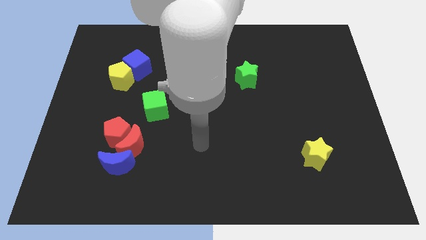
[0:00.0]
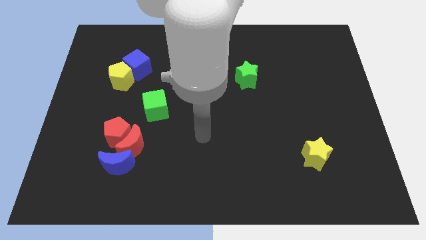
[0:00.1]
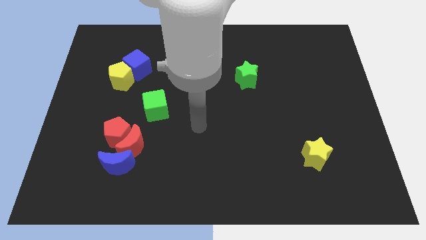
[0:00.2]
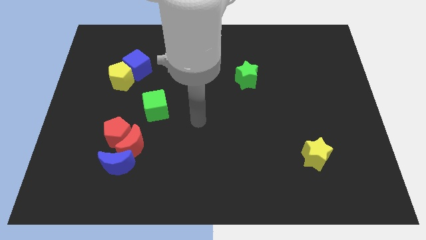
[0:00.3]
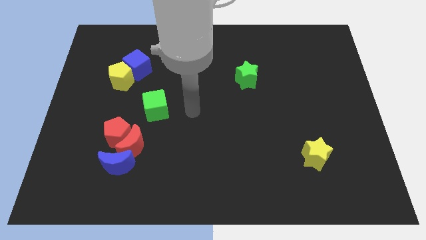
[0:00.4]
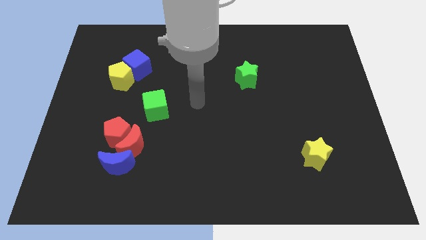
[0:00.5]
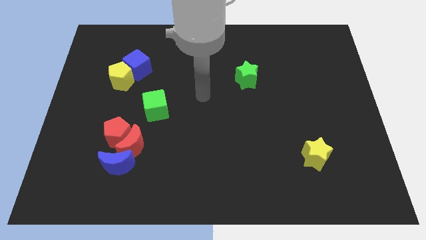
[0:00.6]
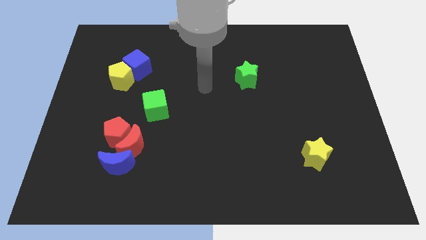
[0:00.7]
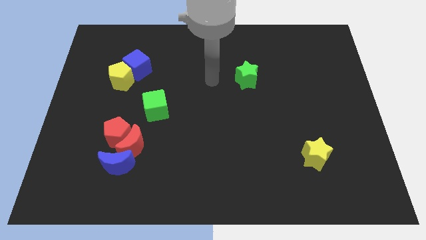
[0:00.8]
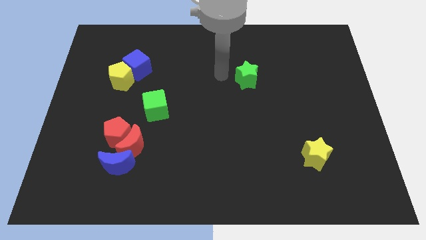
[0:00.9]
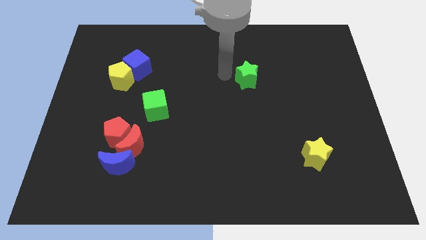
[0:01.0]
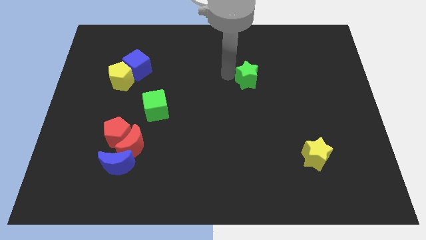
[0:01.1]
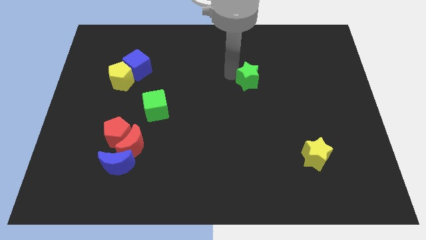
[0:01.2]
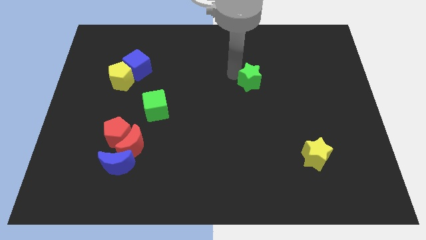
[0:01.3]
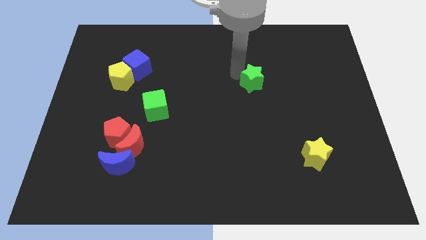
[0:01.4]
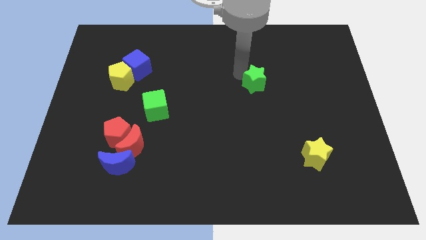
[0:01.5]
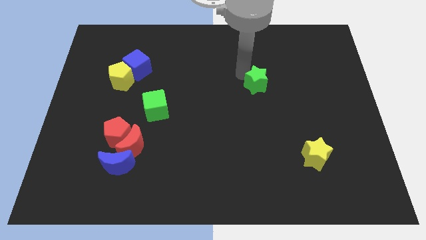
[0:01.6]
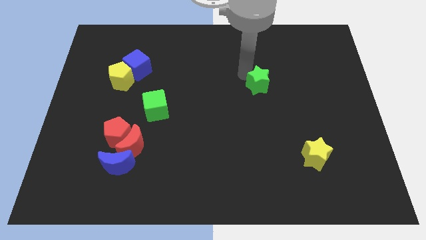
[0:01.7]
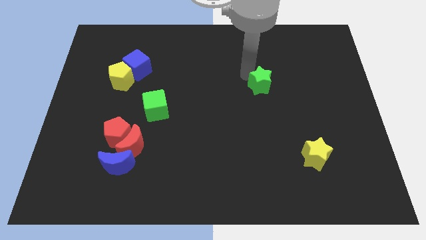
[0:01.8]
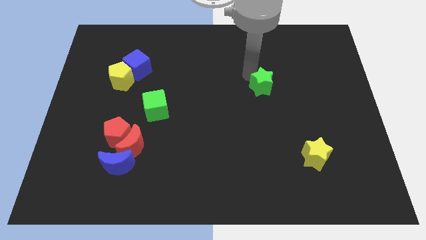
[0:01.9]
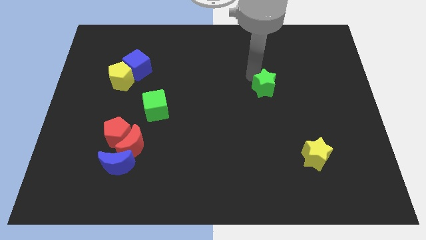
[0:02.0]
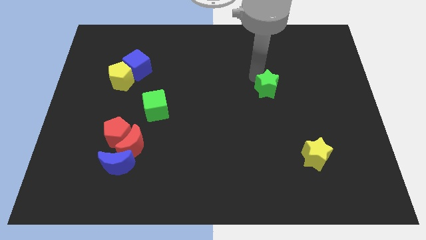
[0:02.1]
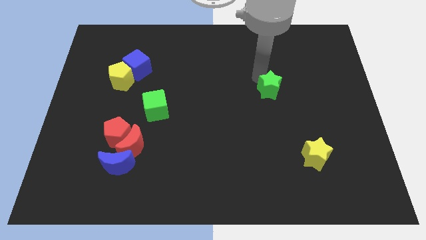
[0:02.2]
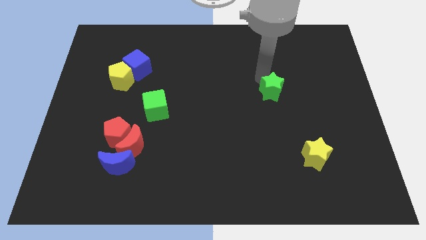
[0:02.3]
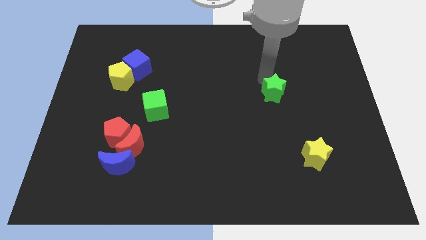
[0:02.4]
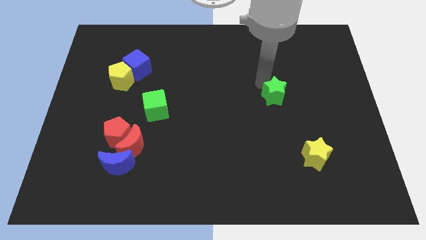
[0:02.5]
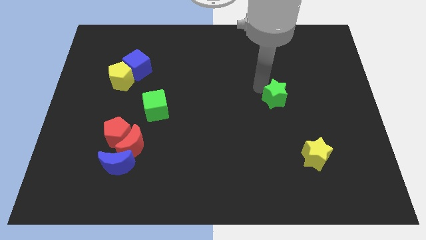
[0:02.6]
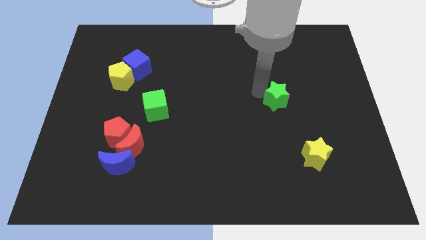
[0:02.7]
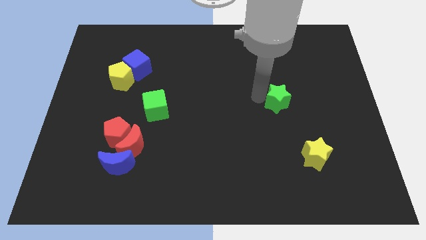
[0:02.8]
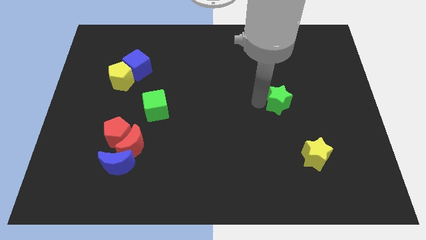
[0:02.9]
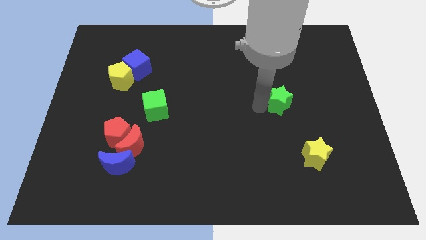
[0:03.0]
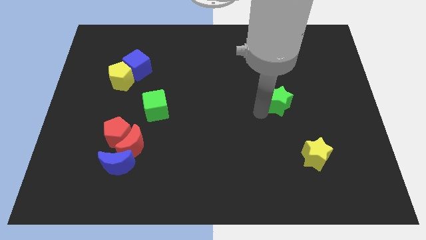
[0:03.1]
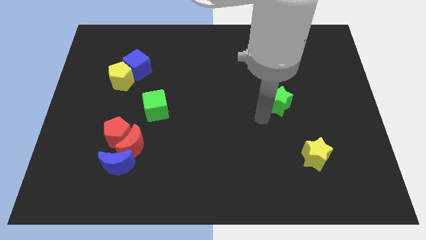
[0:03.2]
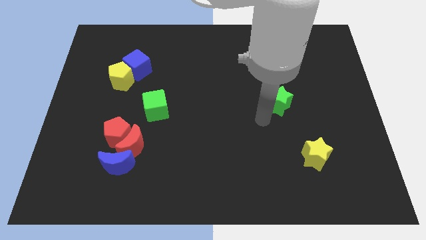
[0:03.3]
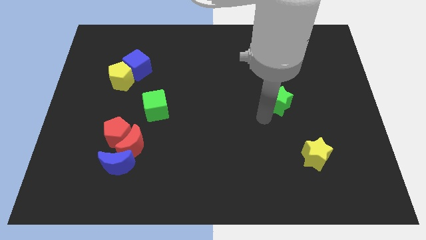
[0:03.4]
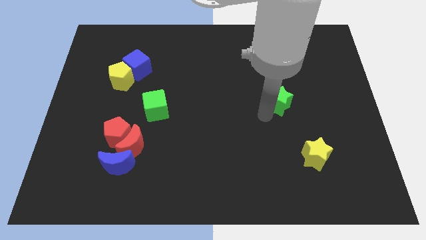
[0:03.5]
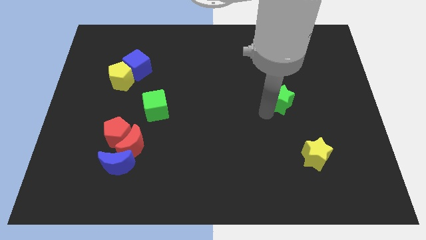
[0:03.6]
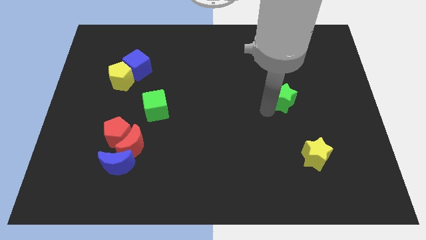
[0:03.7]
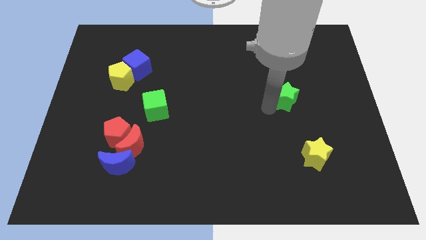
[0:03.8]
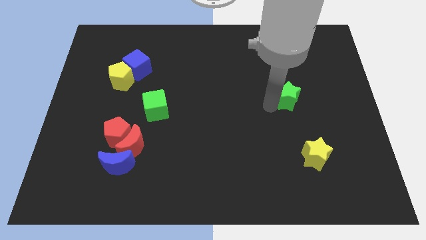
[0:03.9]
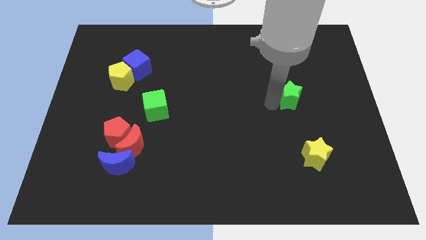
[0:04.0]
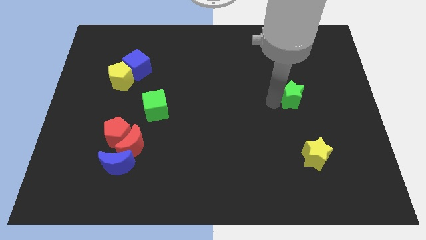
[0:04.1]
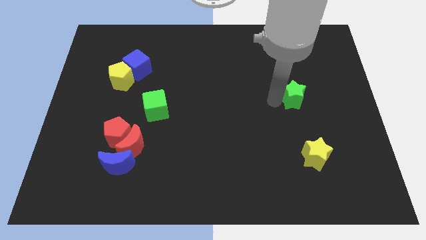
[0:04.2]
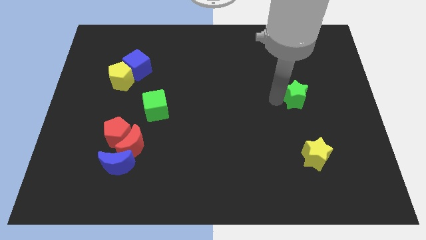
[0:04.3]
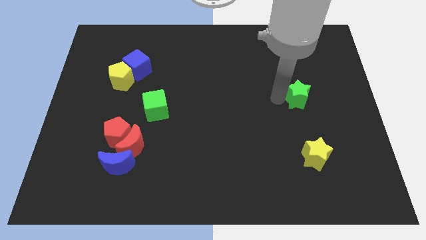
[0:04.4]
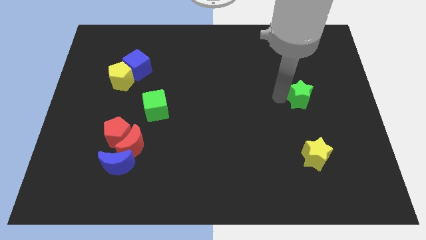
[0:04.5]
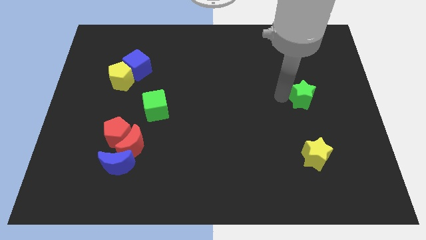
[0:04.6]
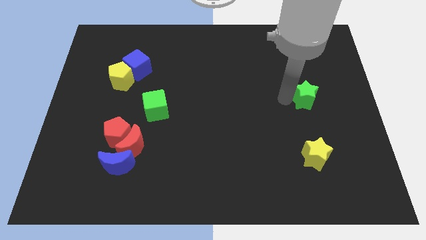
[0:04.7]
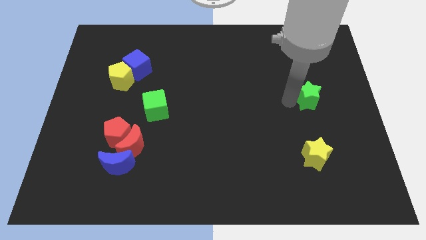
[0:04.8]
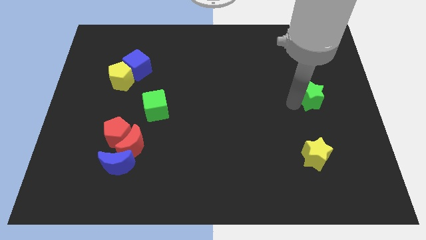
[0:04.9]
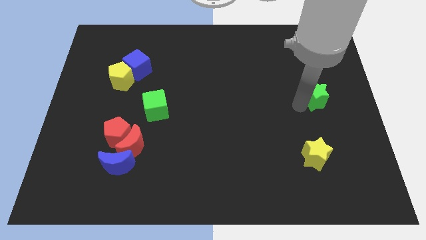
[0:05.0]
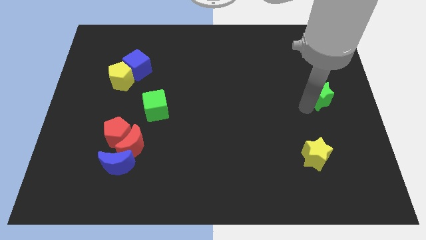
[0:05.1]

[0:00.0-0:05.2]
put the green star to the right side

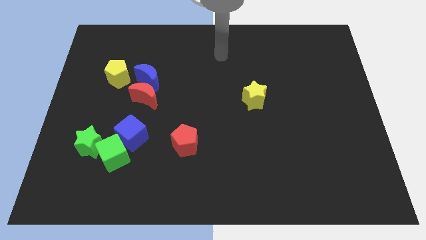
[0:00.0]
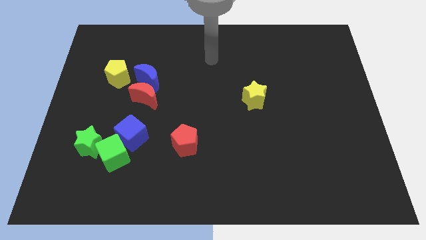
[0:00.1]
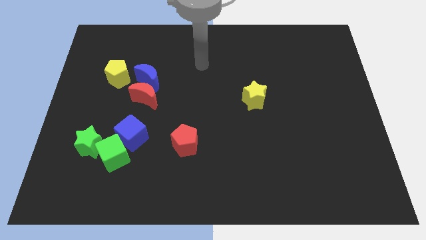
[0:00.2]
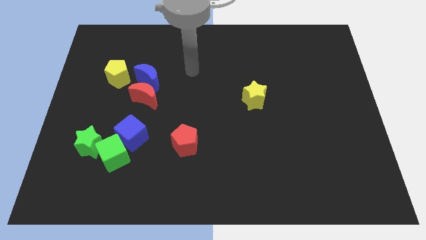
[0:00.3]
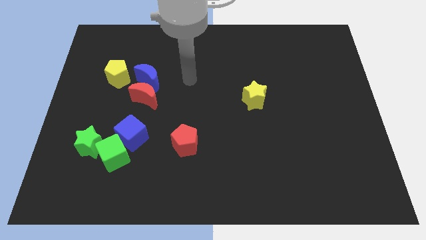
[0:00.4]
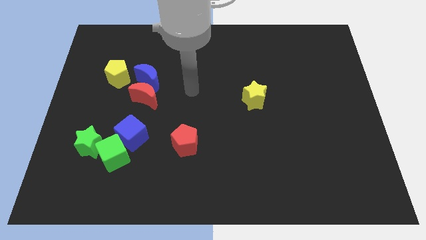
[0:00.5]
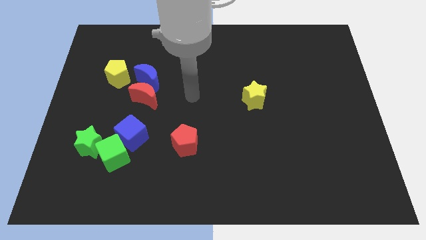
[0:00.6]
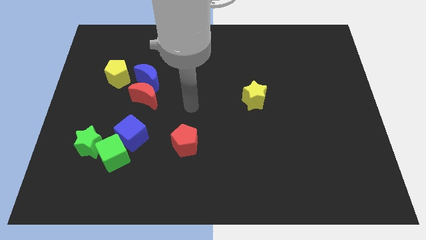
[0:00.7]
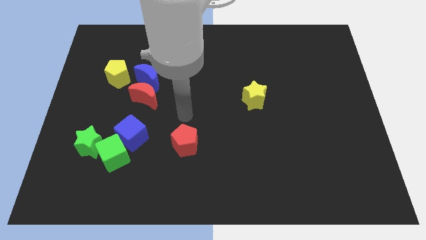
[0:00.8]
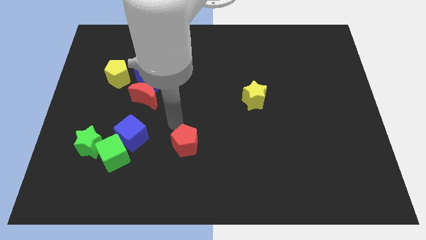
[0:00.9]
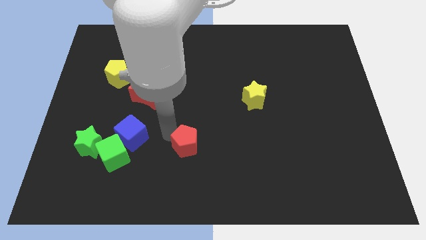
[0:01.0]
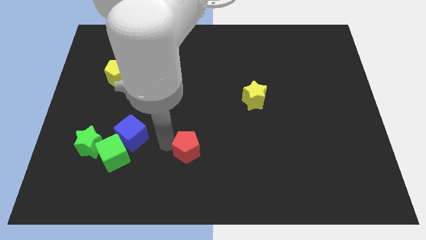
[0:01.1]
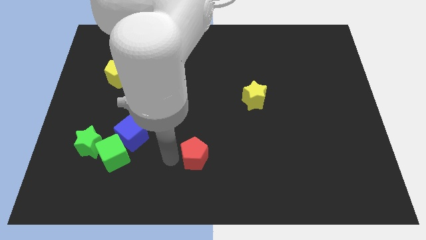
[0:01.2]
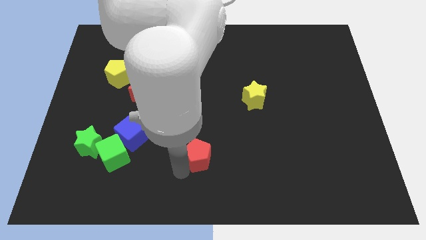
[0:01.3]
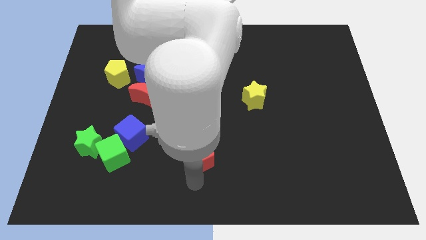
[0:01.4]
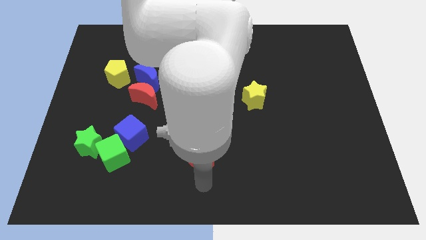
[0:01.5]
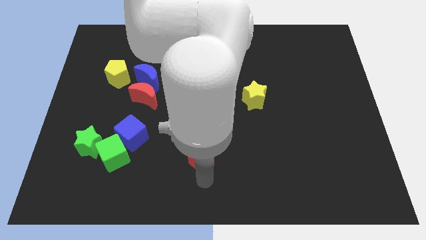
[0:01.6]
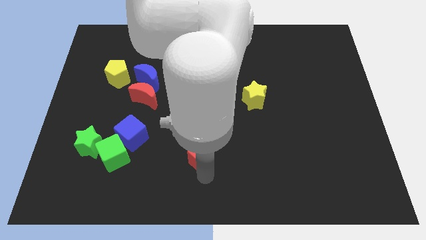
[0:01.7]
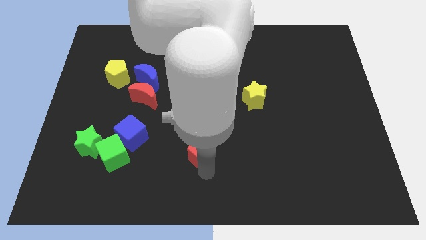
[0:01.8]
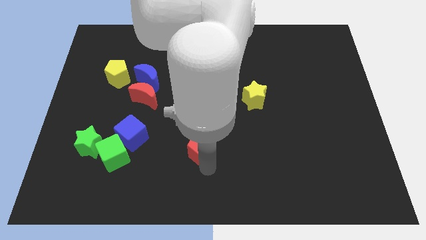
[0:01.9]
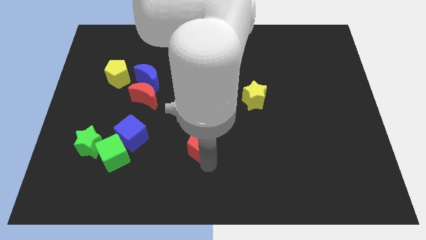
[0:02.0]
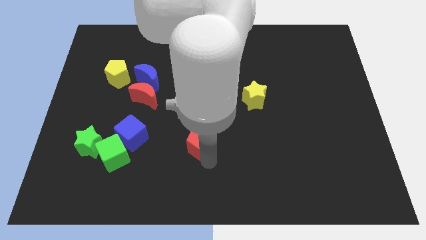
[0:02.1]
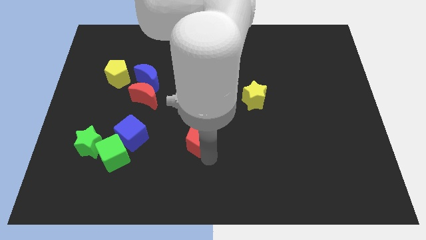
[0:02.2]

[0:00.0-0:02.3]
slide the red pentagon to the middle
